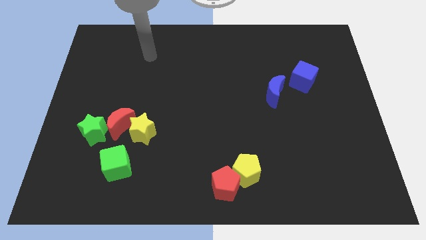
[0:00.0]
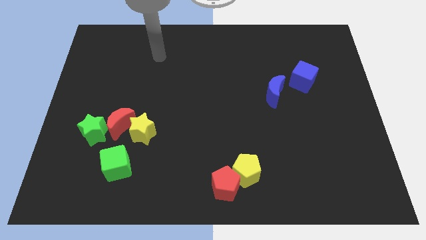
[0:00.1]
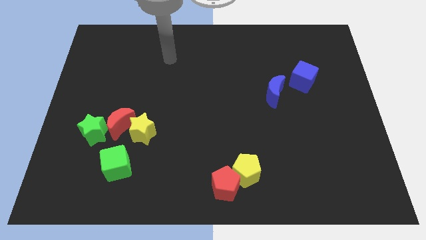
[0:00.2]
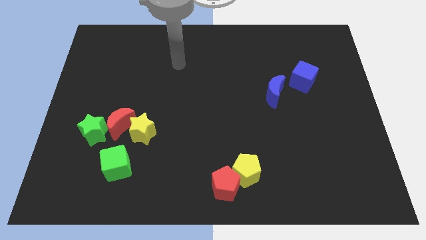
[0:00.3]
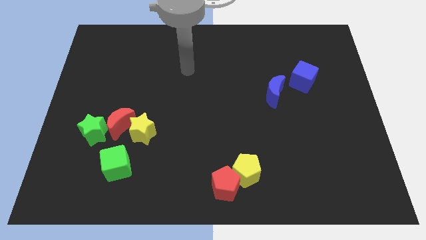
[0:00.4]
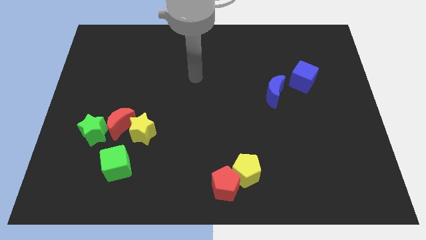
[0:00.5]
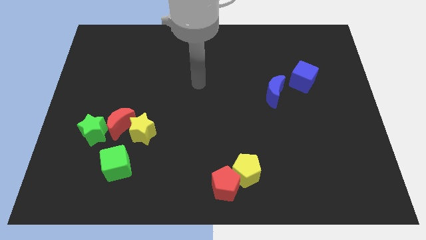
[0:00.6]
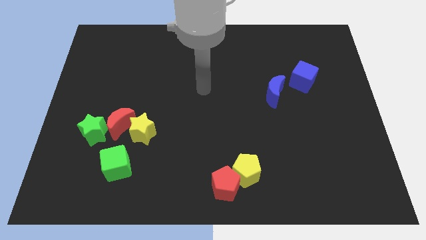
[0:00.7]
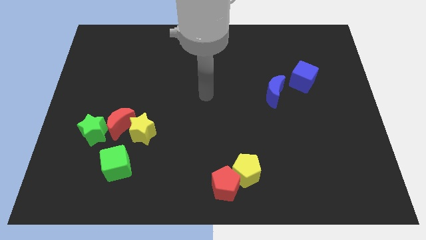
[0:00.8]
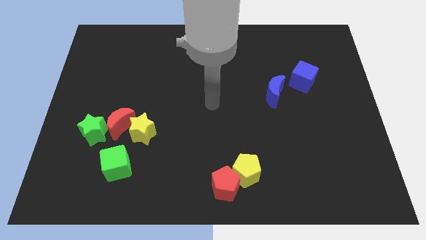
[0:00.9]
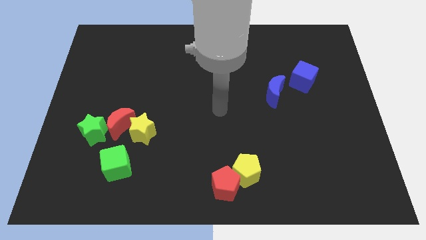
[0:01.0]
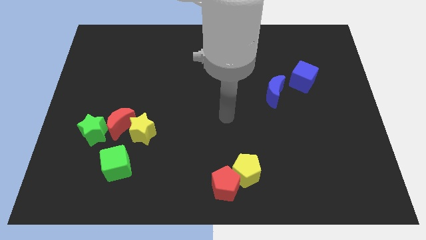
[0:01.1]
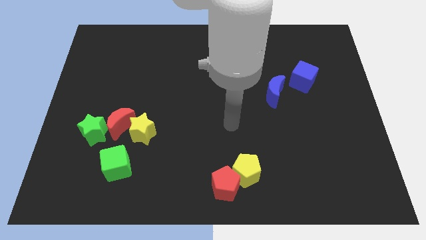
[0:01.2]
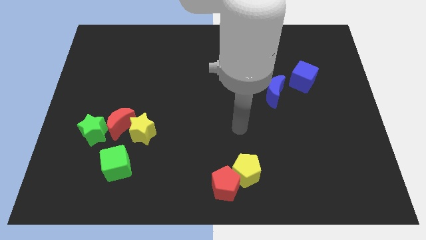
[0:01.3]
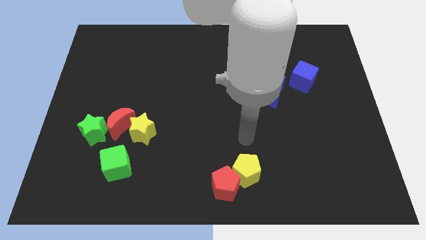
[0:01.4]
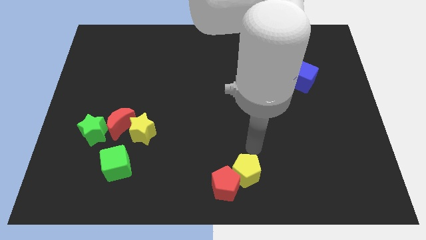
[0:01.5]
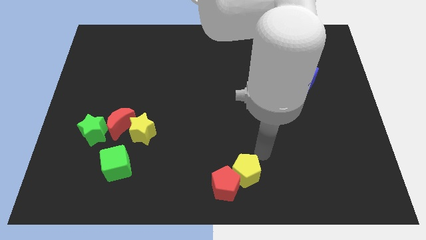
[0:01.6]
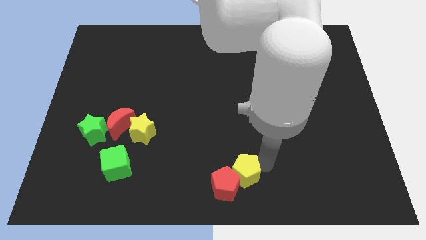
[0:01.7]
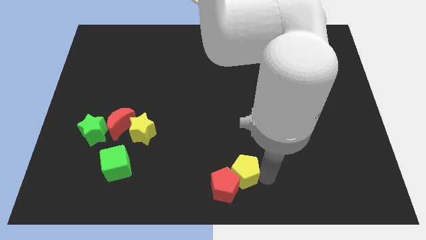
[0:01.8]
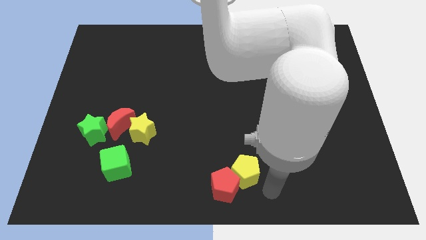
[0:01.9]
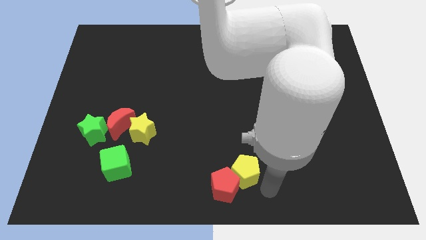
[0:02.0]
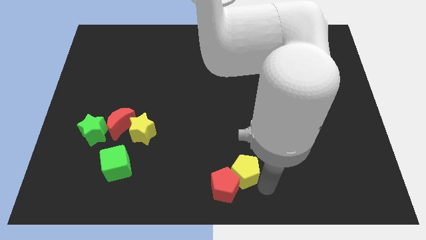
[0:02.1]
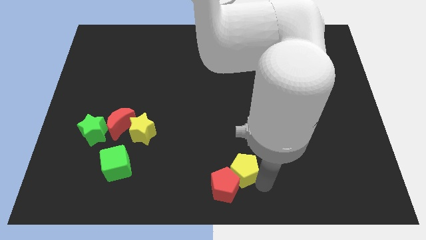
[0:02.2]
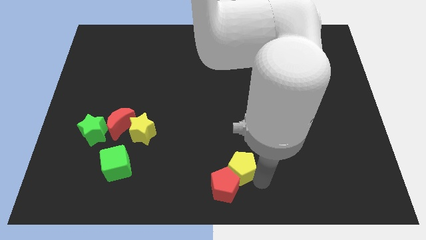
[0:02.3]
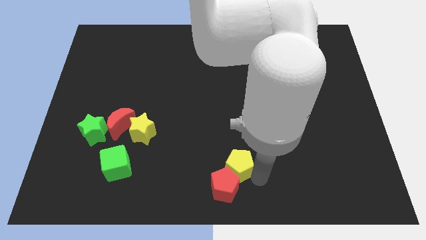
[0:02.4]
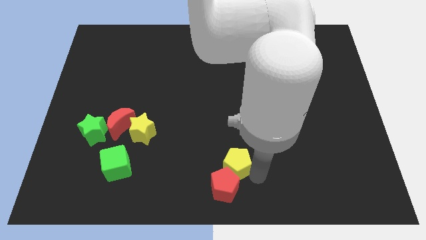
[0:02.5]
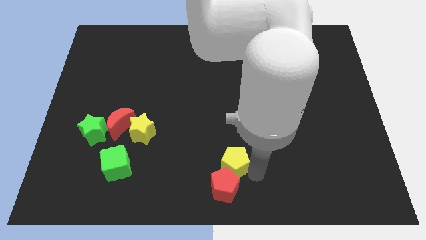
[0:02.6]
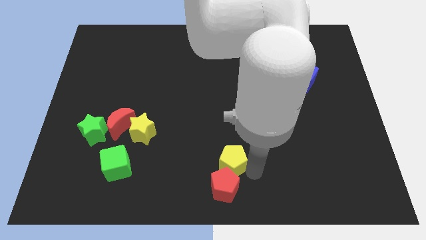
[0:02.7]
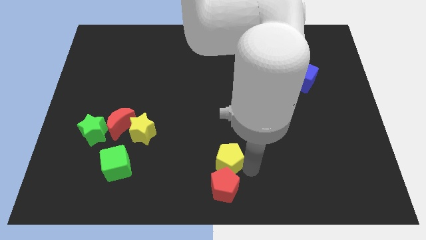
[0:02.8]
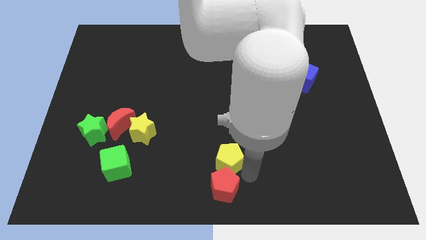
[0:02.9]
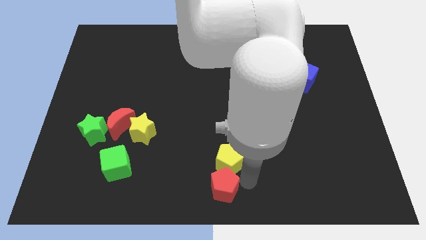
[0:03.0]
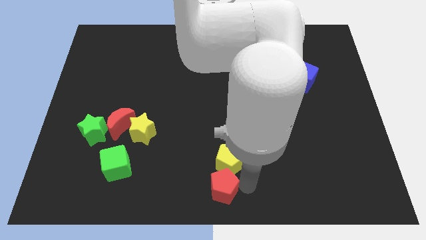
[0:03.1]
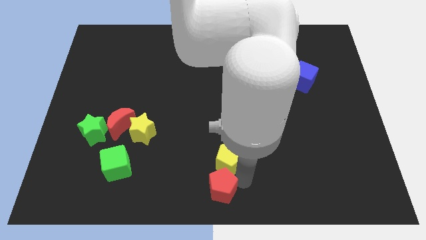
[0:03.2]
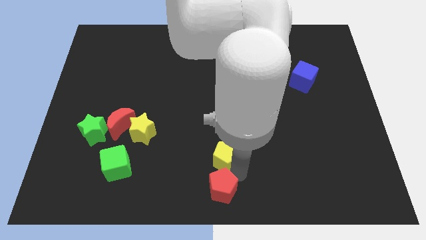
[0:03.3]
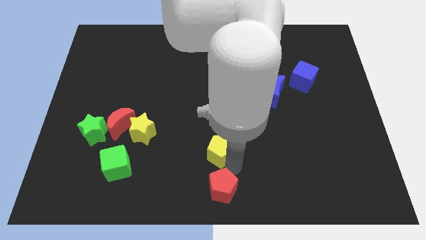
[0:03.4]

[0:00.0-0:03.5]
slide the yellow pentagon up and left a little

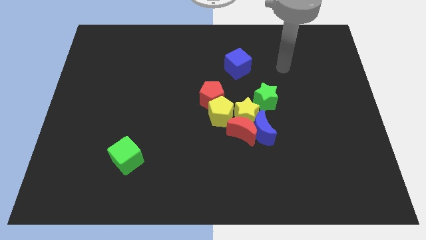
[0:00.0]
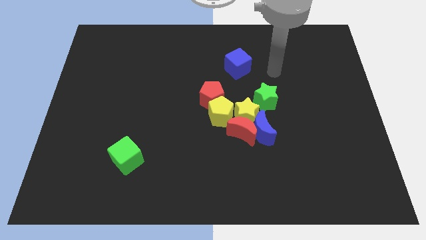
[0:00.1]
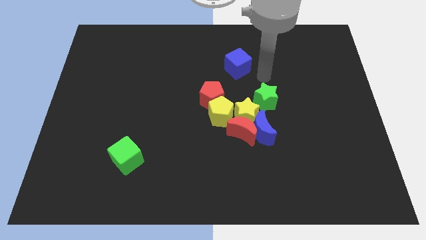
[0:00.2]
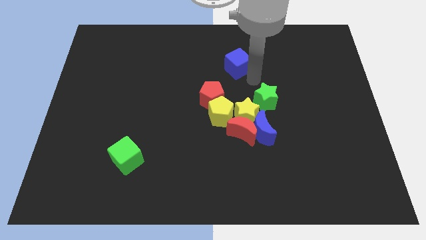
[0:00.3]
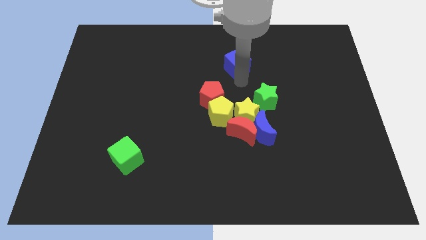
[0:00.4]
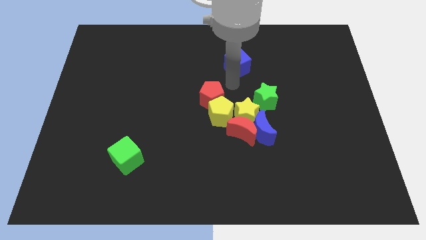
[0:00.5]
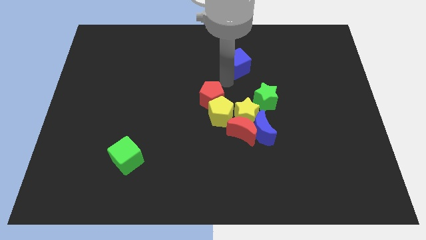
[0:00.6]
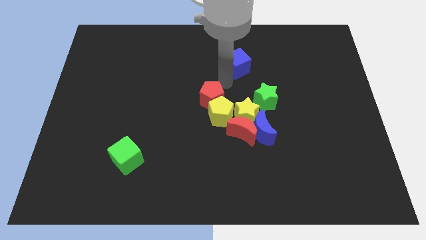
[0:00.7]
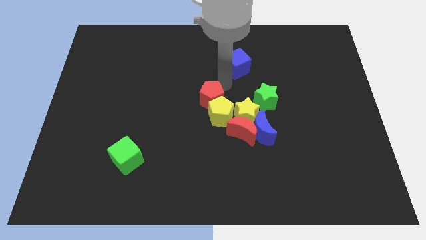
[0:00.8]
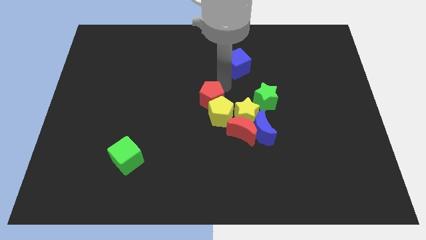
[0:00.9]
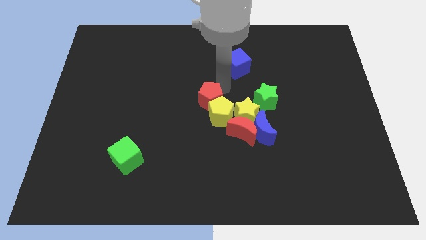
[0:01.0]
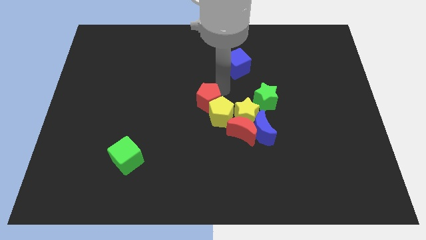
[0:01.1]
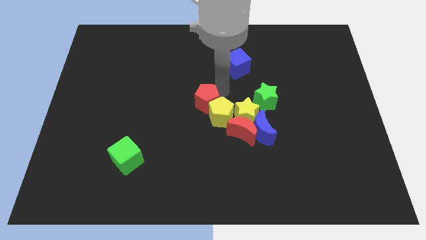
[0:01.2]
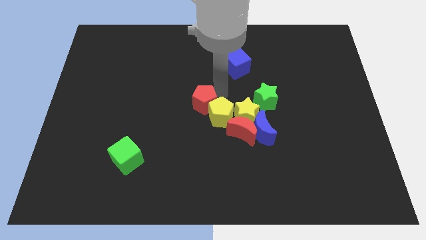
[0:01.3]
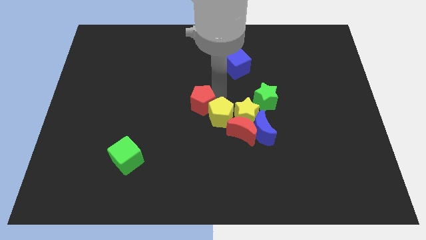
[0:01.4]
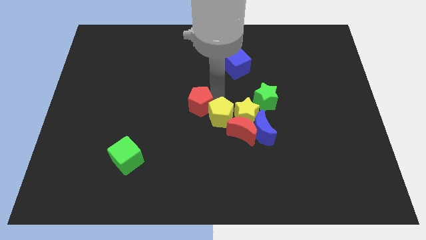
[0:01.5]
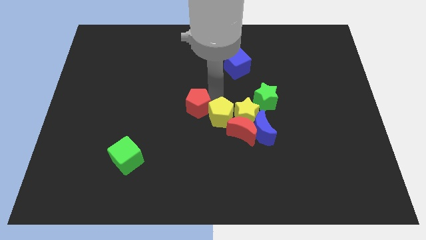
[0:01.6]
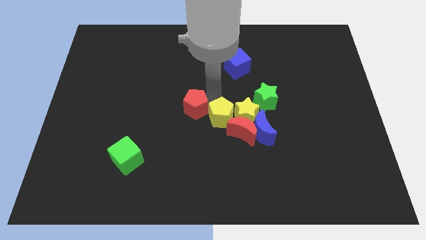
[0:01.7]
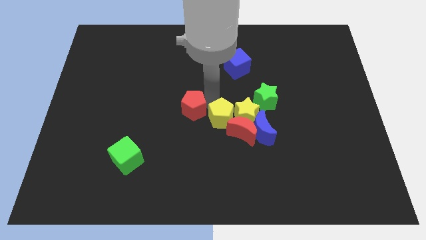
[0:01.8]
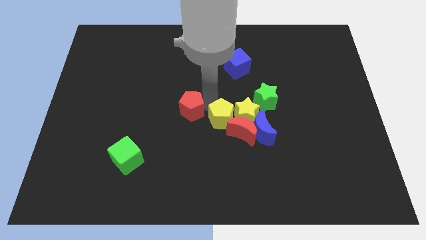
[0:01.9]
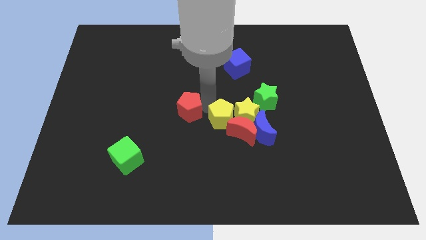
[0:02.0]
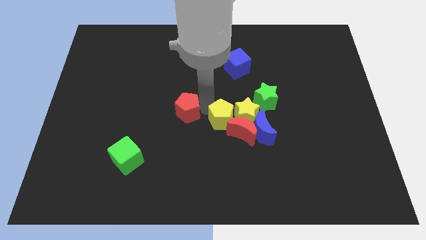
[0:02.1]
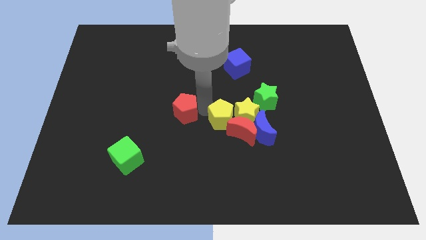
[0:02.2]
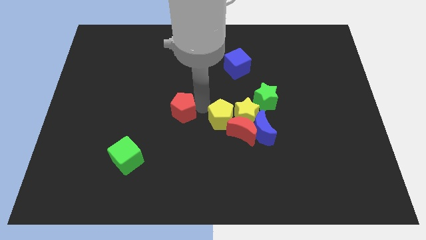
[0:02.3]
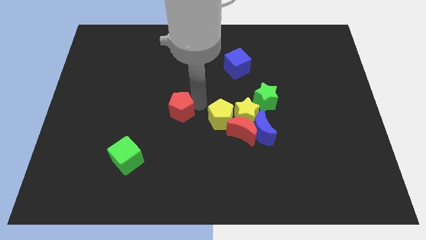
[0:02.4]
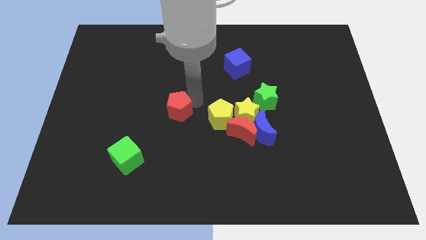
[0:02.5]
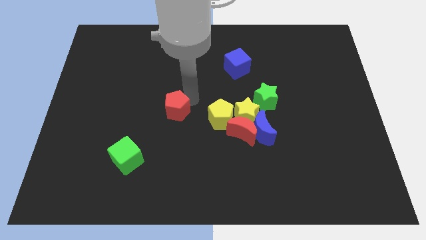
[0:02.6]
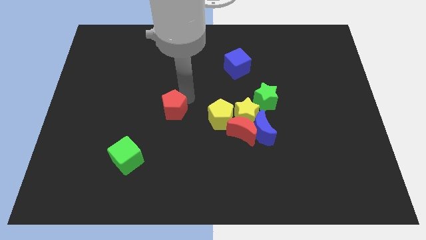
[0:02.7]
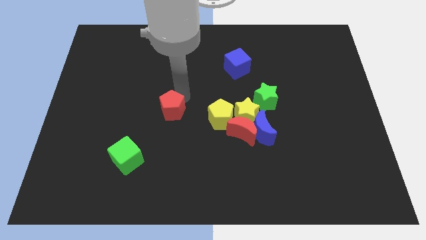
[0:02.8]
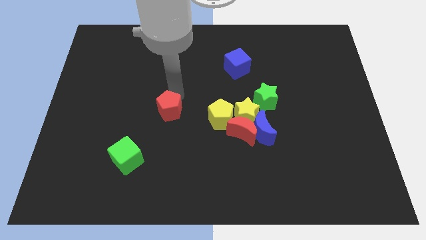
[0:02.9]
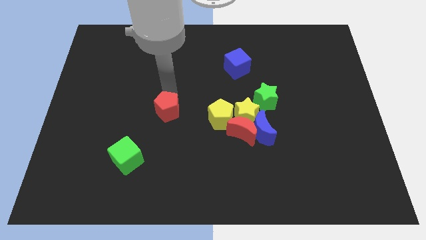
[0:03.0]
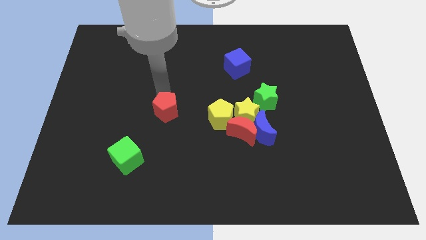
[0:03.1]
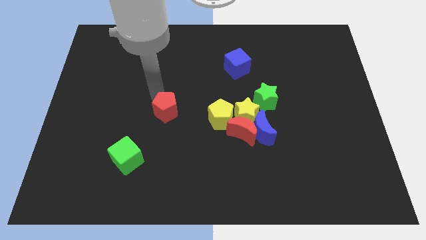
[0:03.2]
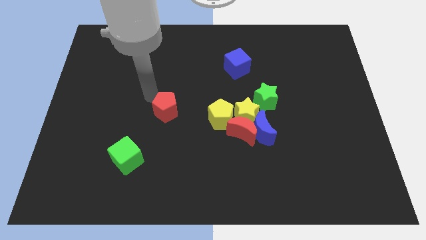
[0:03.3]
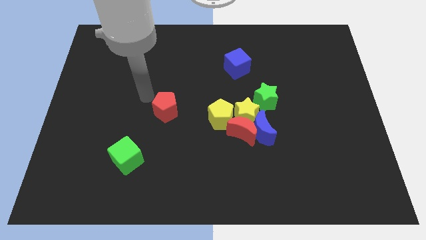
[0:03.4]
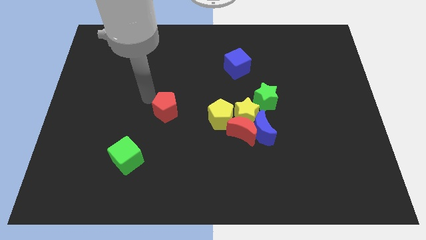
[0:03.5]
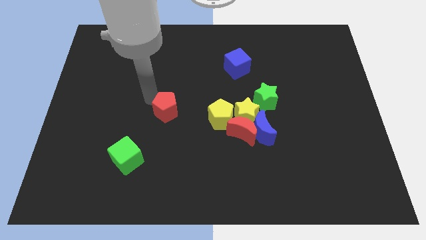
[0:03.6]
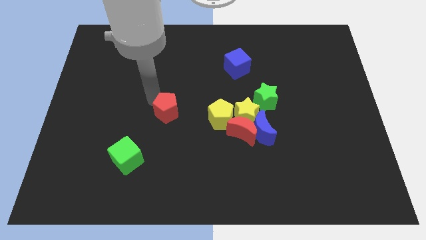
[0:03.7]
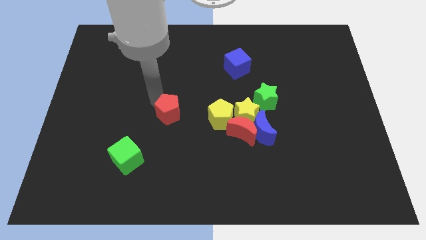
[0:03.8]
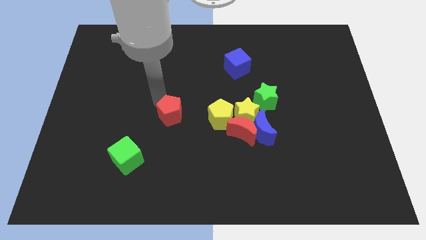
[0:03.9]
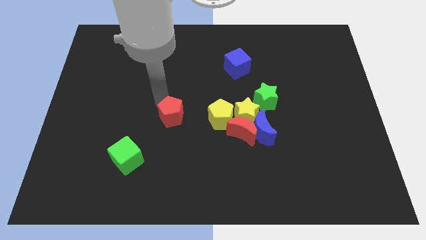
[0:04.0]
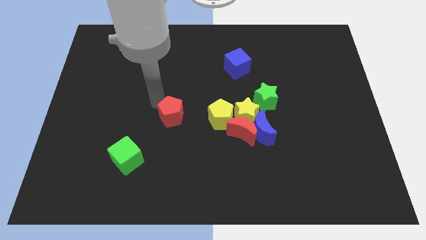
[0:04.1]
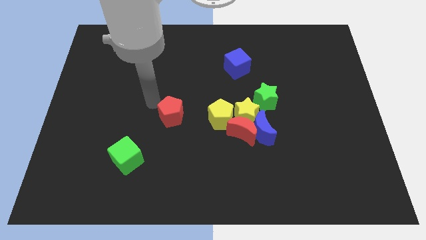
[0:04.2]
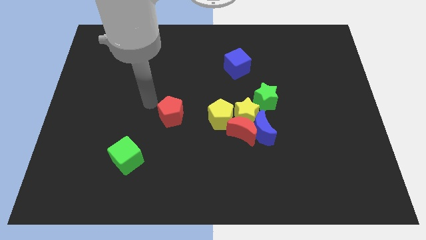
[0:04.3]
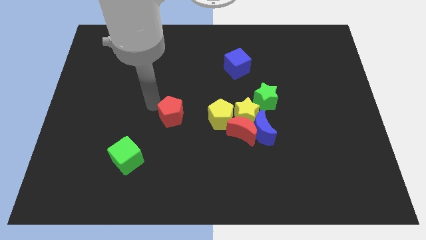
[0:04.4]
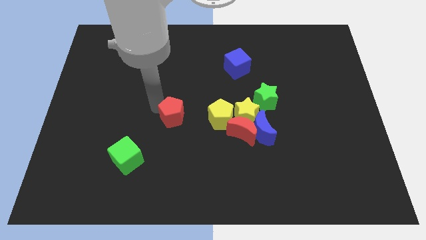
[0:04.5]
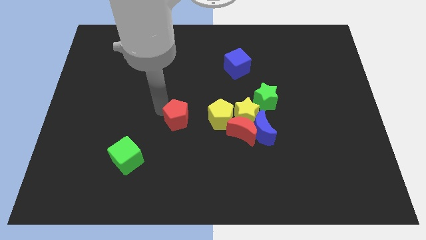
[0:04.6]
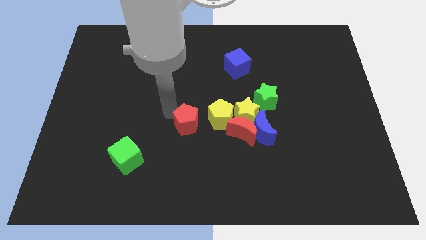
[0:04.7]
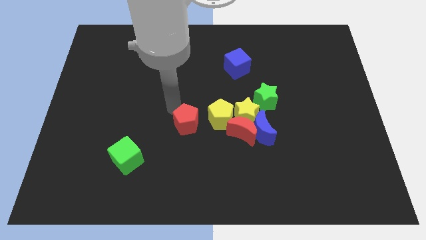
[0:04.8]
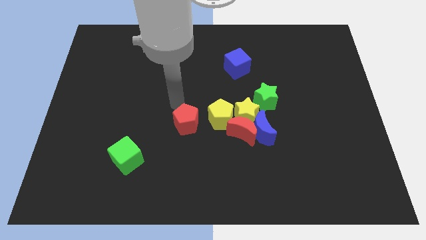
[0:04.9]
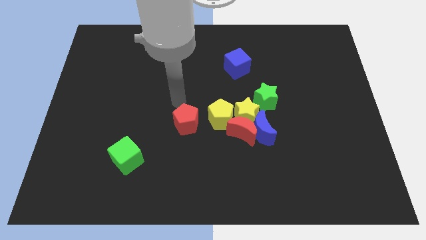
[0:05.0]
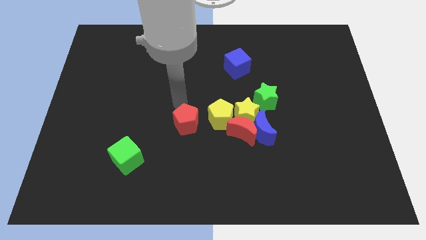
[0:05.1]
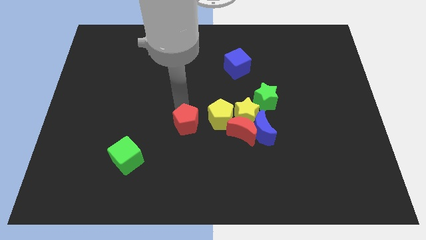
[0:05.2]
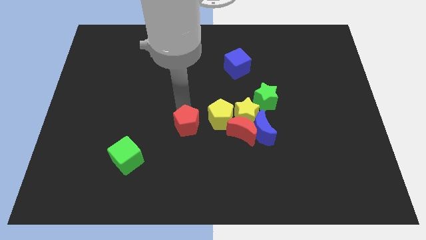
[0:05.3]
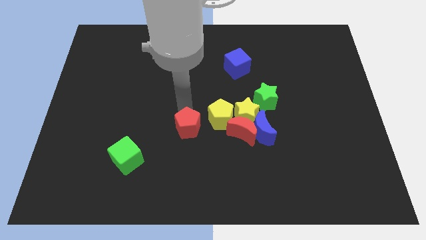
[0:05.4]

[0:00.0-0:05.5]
slide the red pentagon downwards slightly
